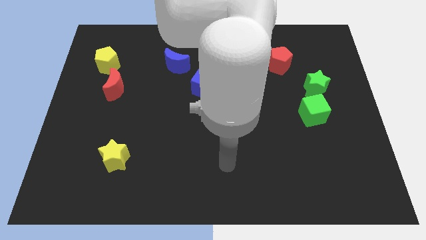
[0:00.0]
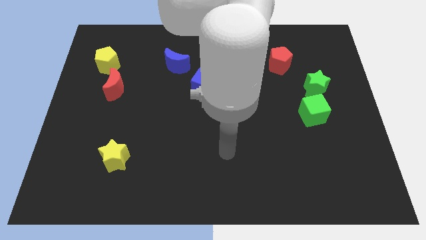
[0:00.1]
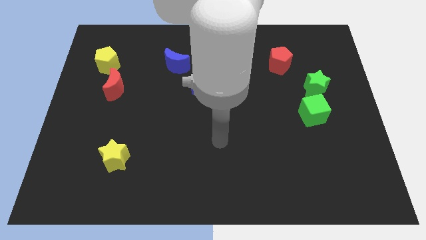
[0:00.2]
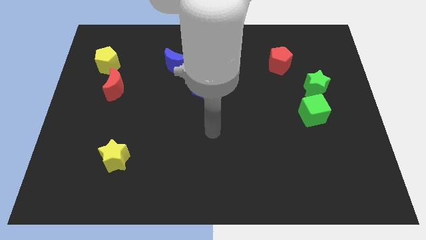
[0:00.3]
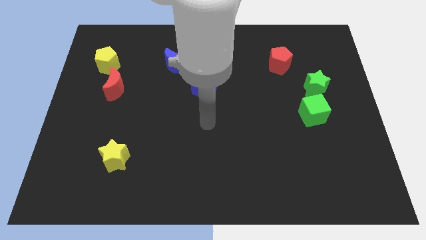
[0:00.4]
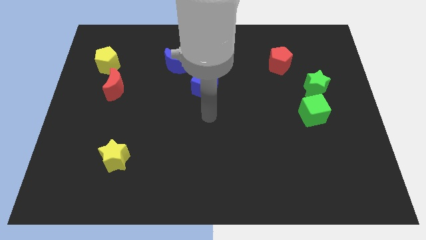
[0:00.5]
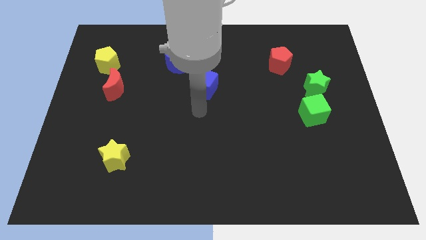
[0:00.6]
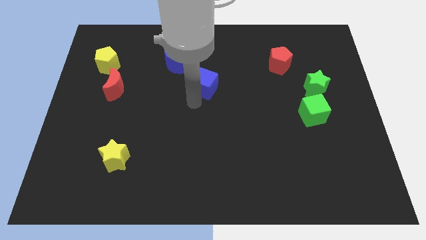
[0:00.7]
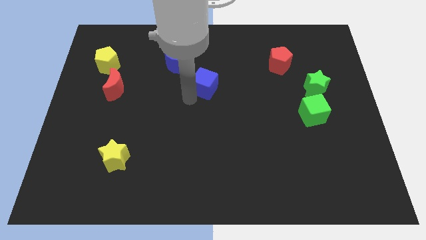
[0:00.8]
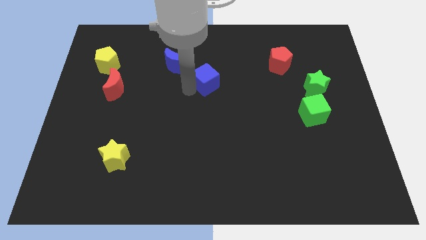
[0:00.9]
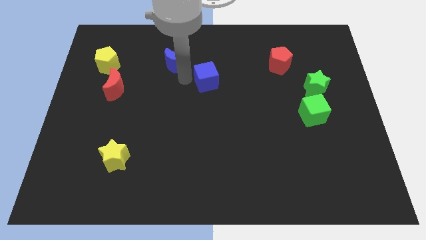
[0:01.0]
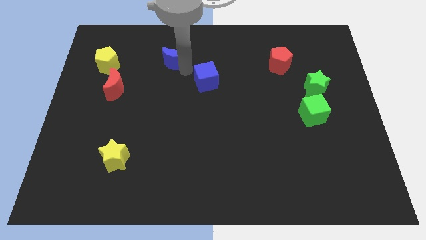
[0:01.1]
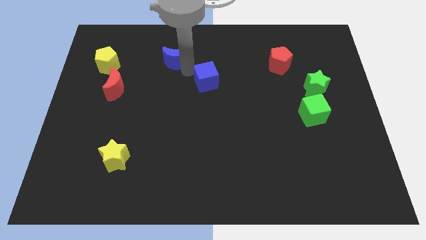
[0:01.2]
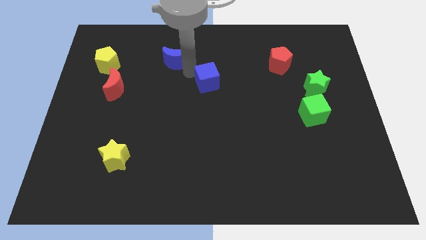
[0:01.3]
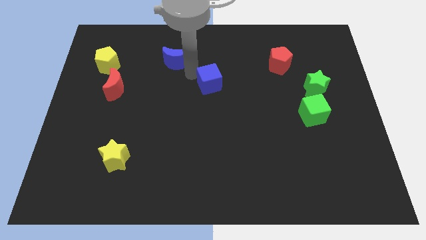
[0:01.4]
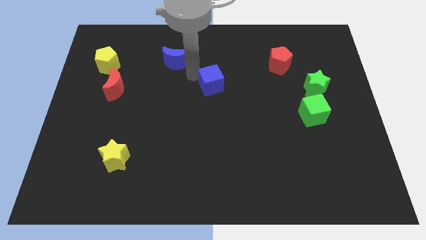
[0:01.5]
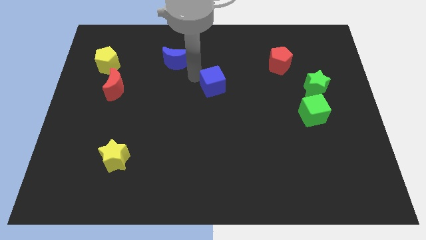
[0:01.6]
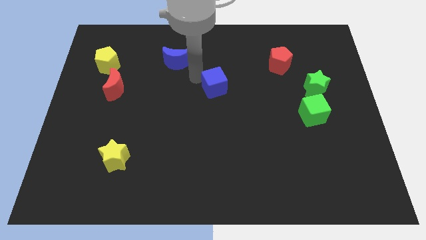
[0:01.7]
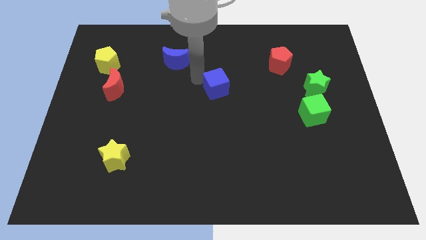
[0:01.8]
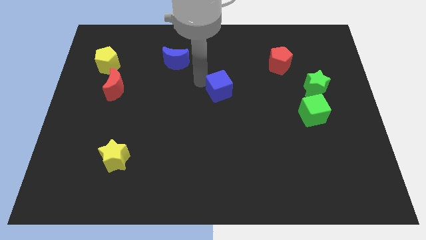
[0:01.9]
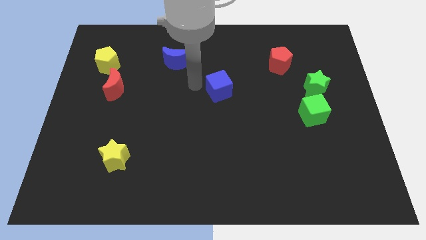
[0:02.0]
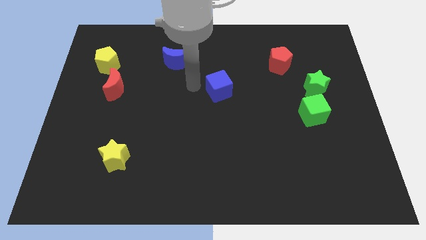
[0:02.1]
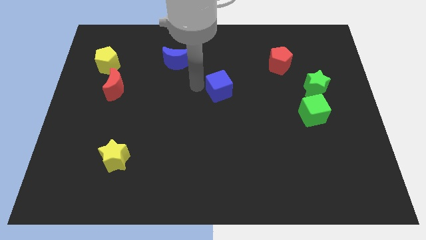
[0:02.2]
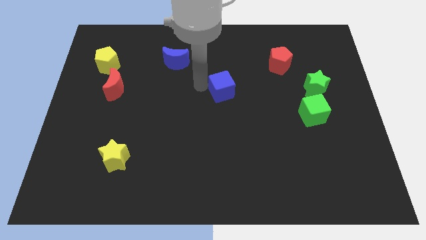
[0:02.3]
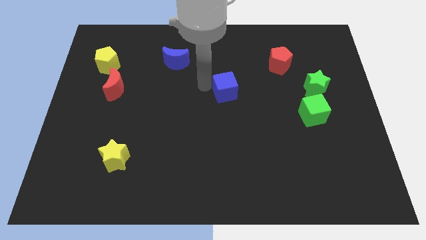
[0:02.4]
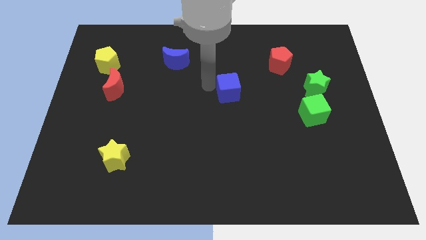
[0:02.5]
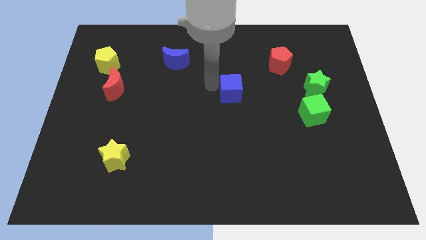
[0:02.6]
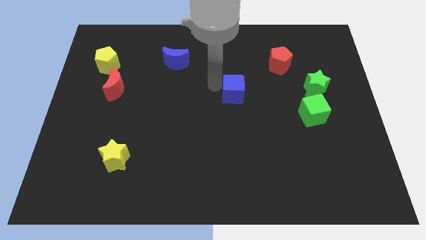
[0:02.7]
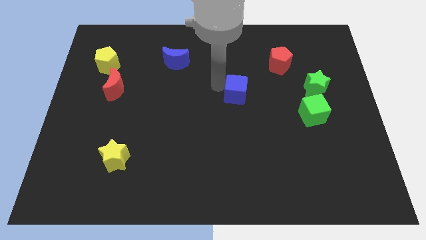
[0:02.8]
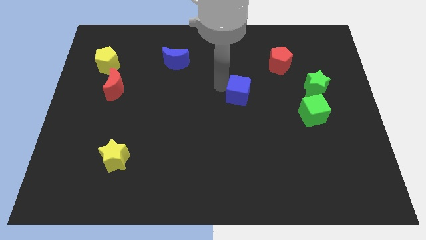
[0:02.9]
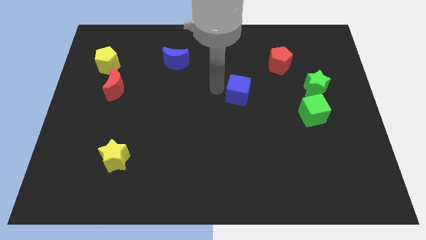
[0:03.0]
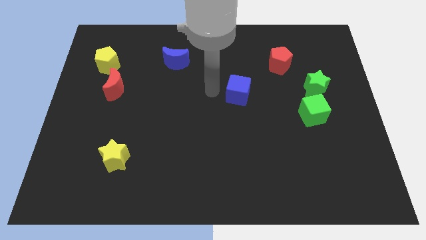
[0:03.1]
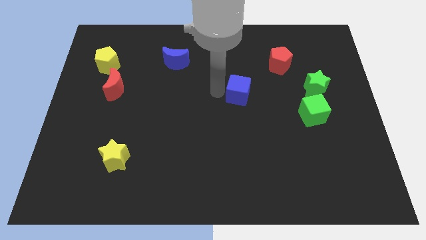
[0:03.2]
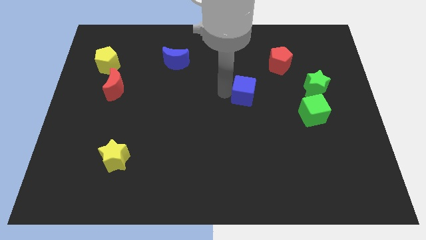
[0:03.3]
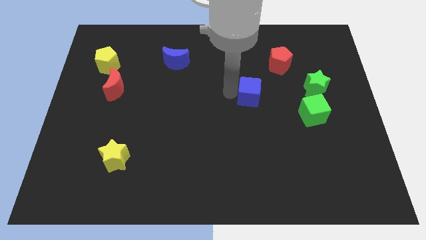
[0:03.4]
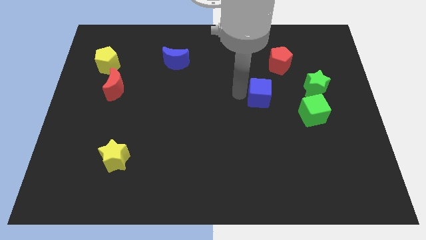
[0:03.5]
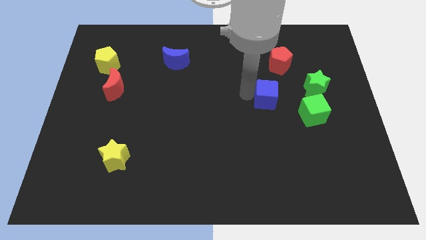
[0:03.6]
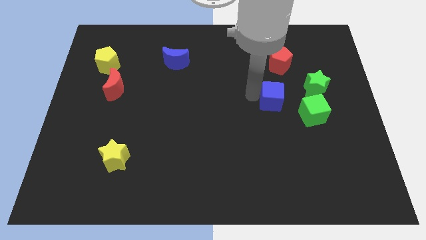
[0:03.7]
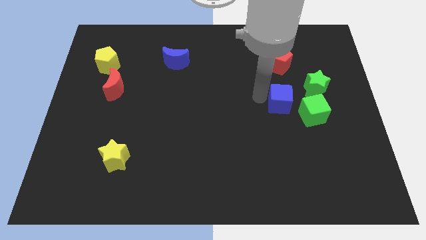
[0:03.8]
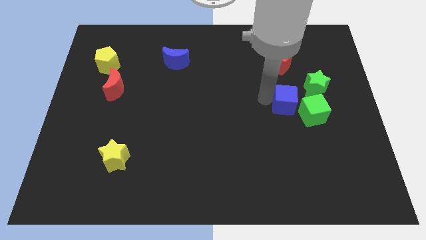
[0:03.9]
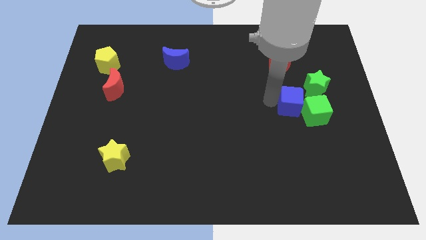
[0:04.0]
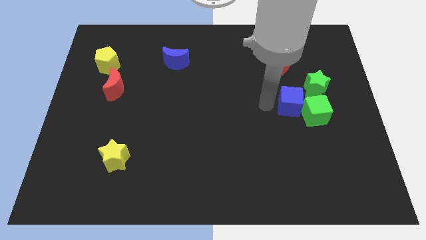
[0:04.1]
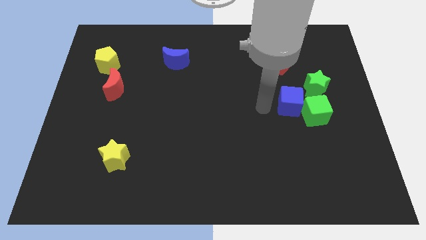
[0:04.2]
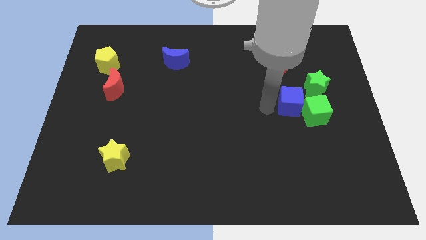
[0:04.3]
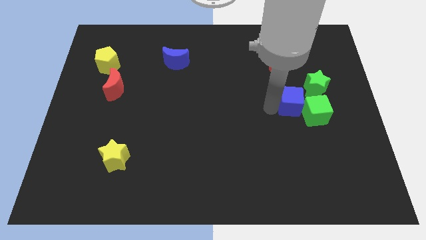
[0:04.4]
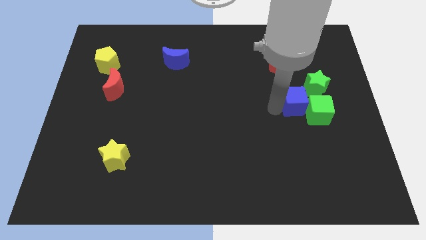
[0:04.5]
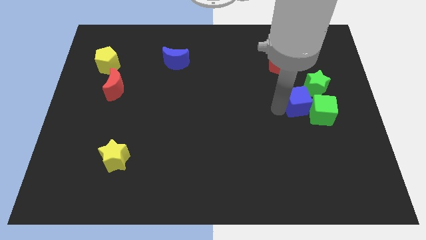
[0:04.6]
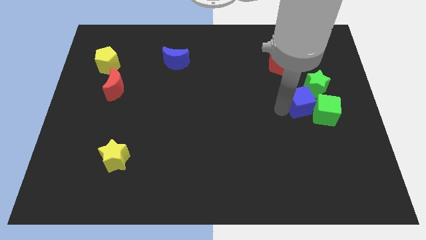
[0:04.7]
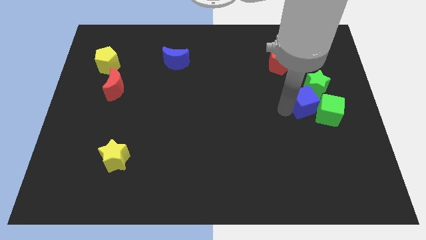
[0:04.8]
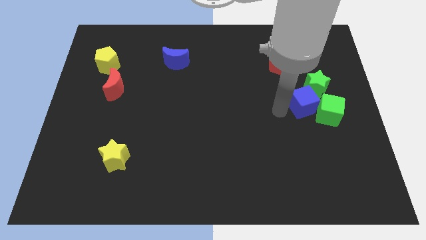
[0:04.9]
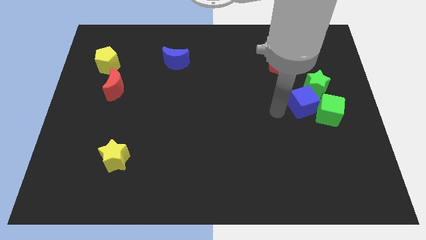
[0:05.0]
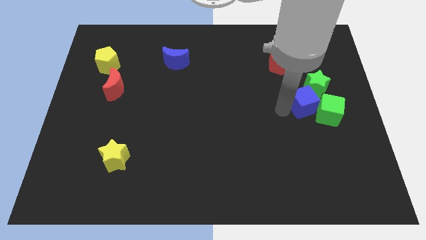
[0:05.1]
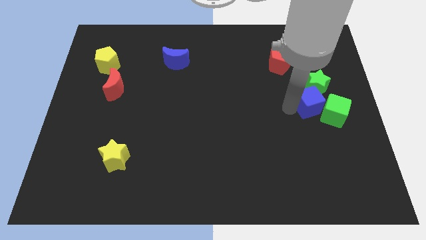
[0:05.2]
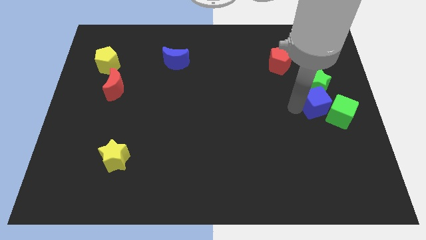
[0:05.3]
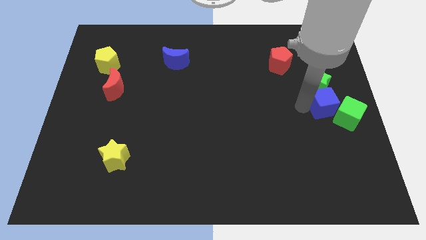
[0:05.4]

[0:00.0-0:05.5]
put the blue cube to the center right

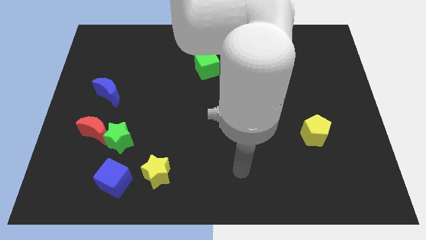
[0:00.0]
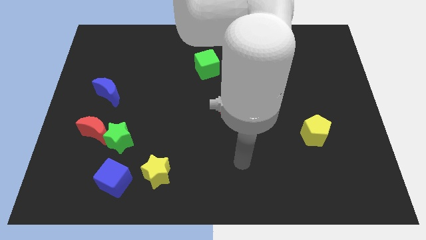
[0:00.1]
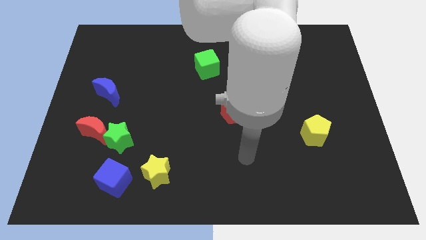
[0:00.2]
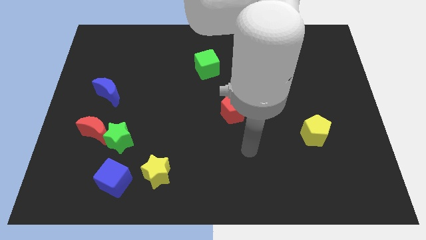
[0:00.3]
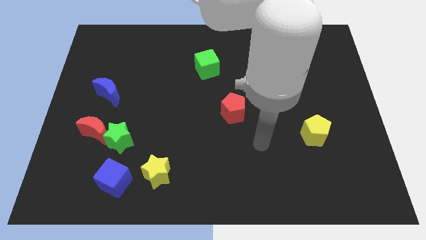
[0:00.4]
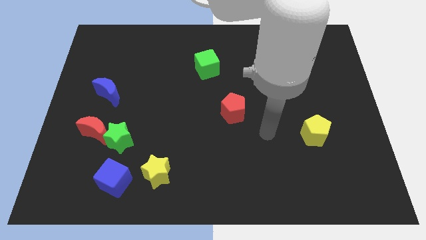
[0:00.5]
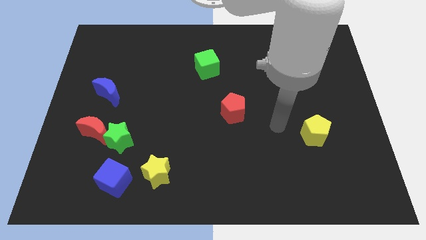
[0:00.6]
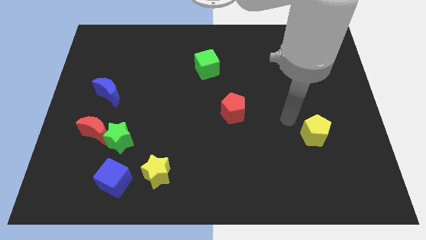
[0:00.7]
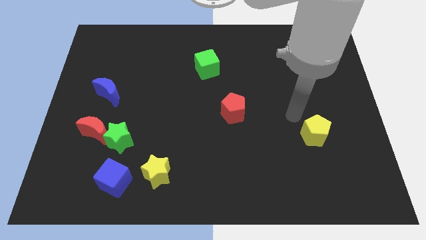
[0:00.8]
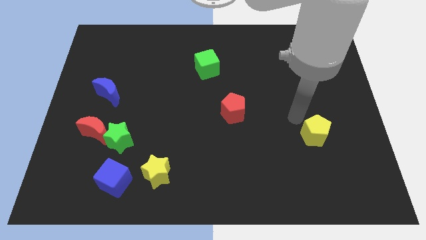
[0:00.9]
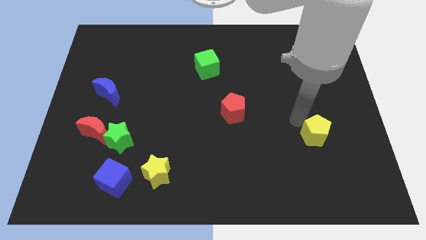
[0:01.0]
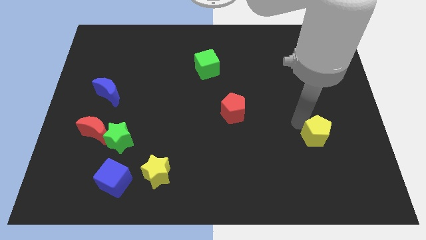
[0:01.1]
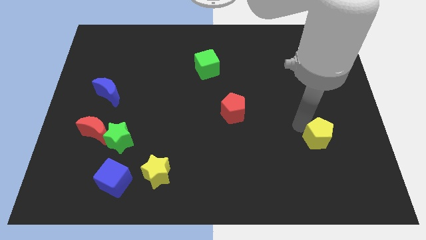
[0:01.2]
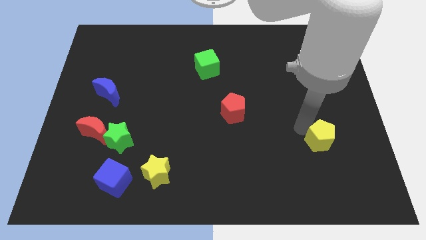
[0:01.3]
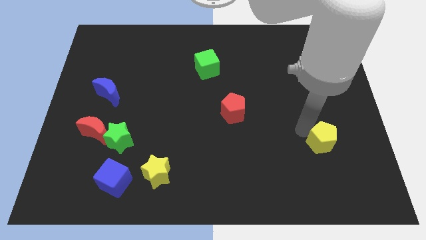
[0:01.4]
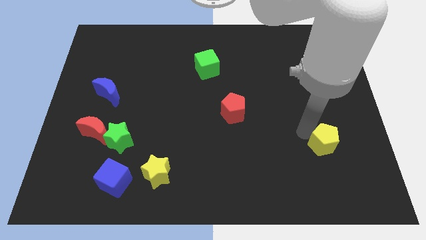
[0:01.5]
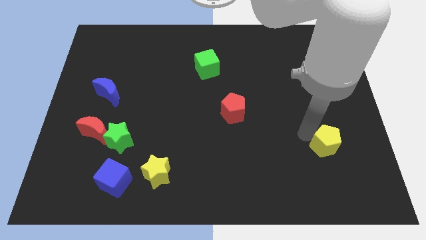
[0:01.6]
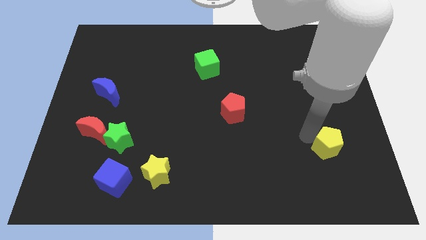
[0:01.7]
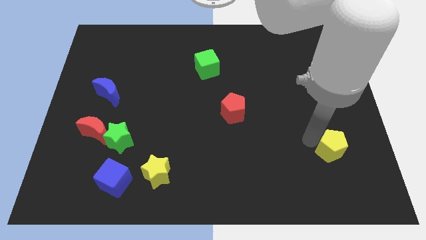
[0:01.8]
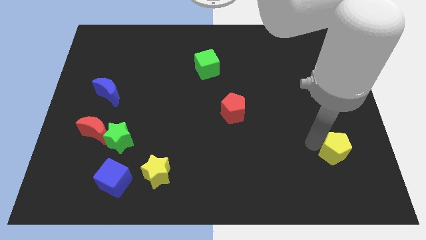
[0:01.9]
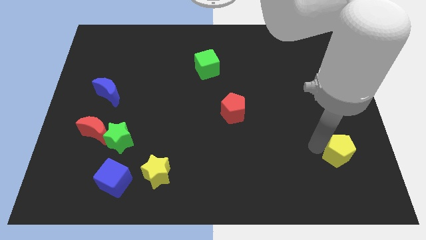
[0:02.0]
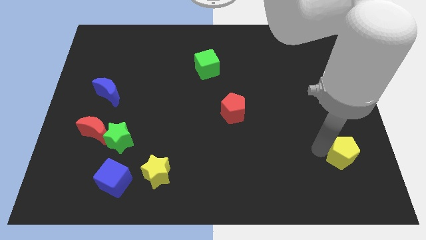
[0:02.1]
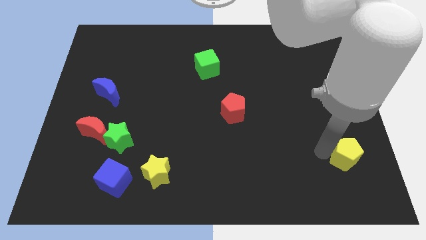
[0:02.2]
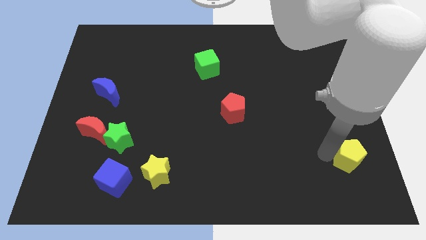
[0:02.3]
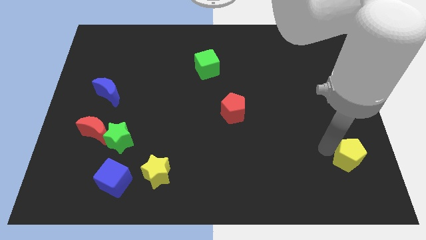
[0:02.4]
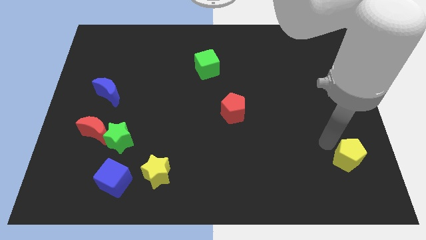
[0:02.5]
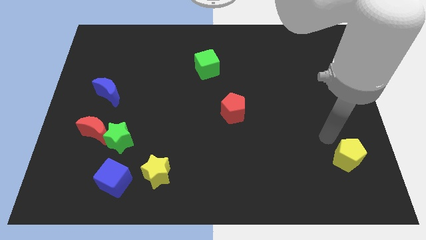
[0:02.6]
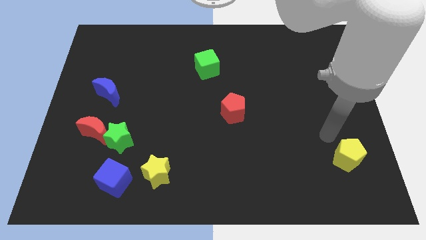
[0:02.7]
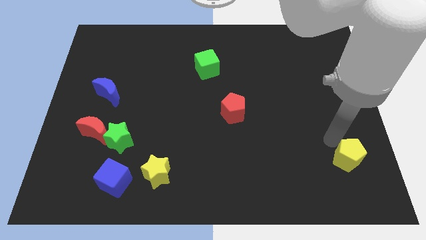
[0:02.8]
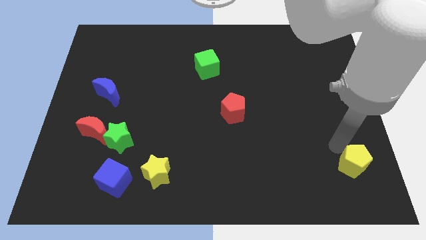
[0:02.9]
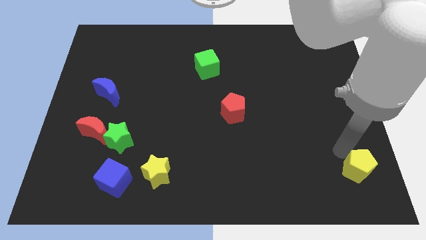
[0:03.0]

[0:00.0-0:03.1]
move the yellow pentagon to the bottom right of the board
